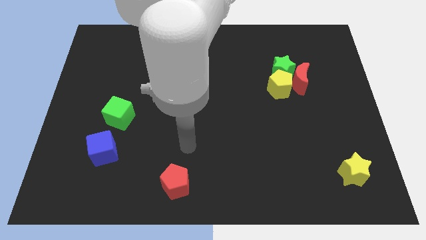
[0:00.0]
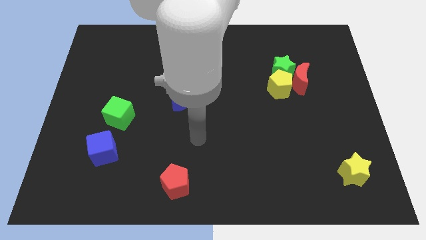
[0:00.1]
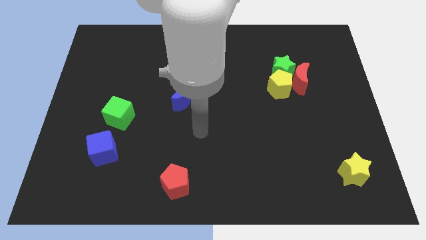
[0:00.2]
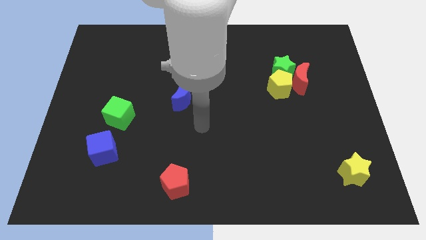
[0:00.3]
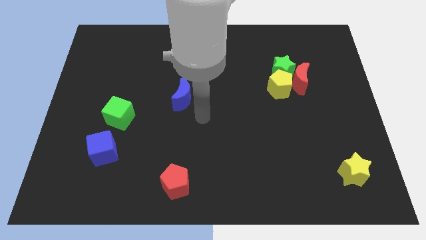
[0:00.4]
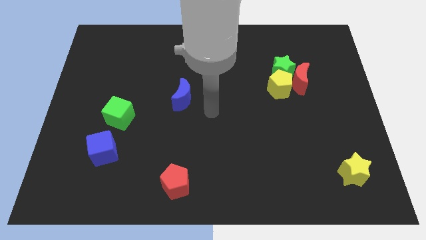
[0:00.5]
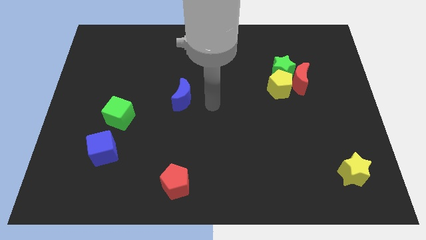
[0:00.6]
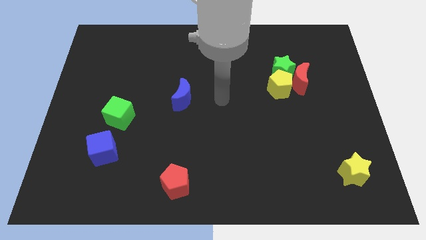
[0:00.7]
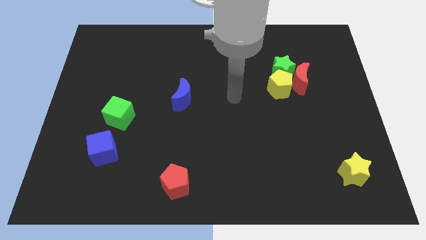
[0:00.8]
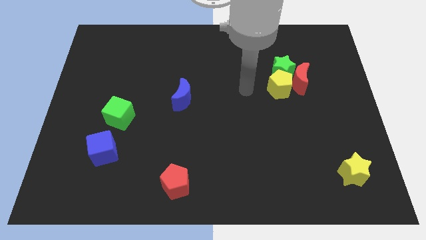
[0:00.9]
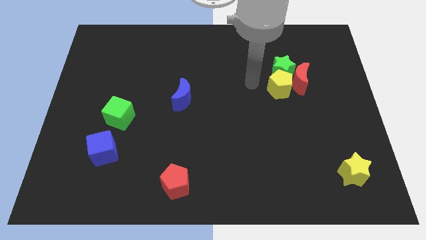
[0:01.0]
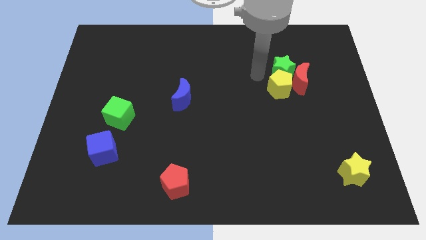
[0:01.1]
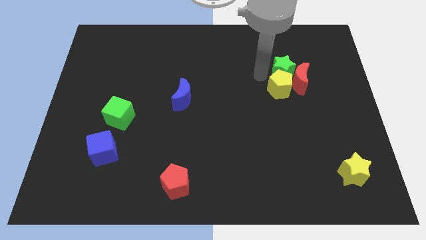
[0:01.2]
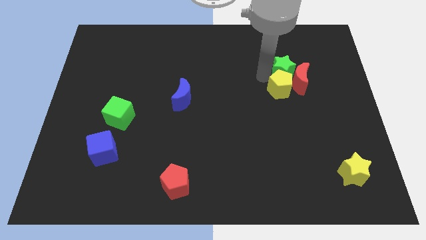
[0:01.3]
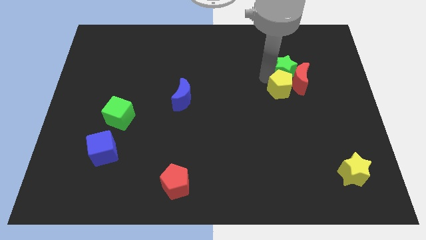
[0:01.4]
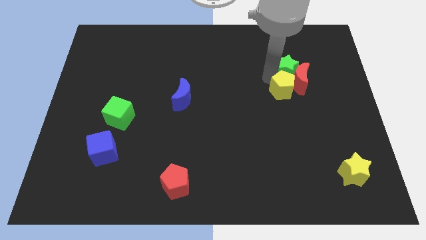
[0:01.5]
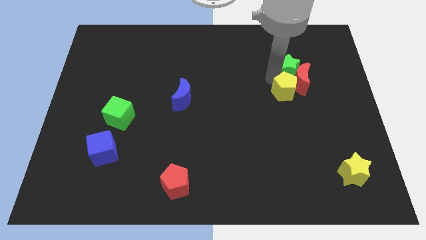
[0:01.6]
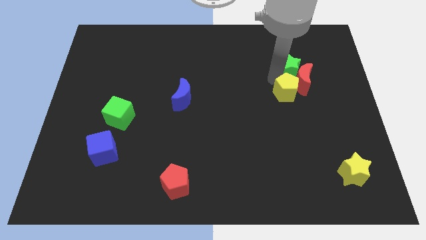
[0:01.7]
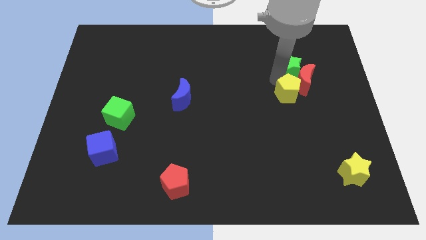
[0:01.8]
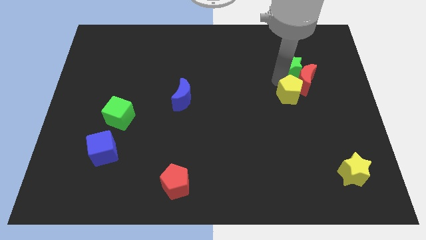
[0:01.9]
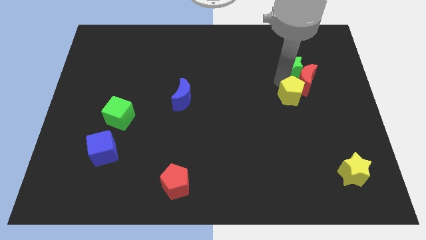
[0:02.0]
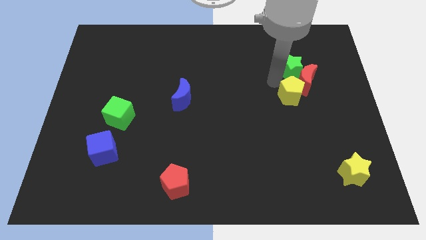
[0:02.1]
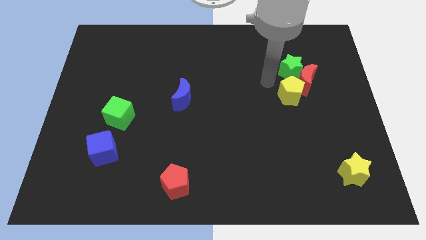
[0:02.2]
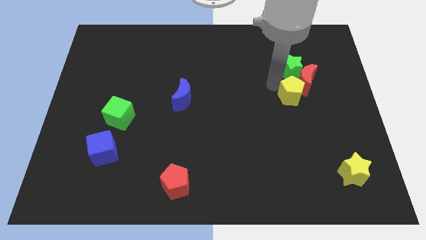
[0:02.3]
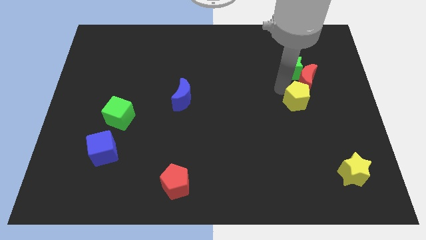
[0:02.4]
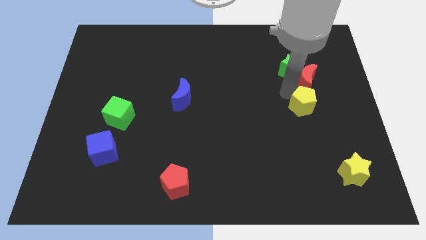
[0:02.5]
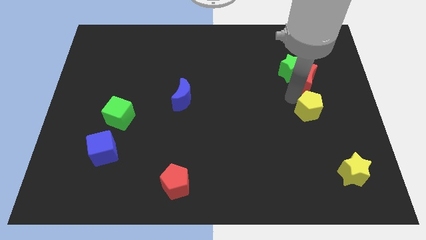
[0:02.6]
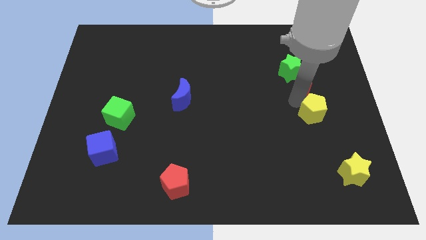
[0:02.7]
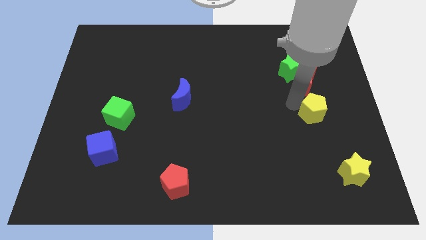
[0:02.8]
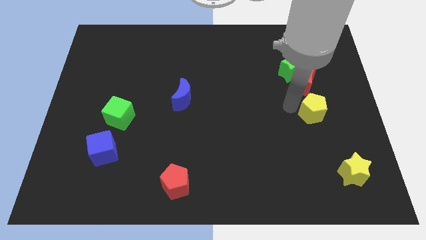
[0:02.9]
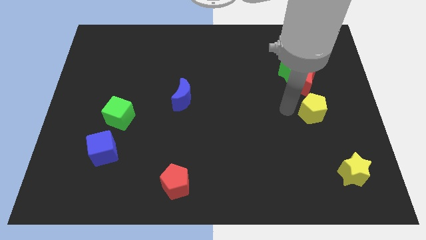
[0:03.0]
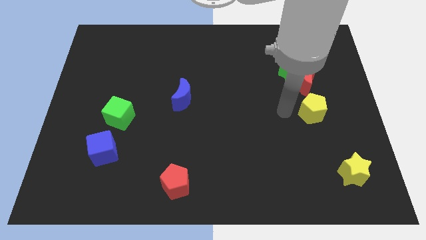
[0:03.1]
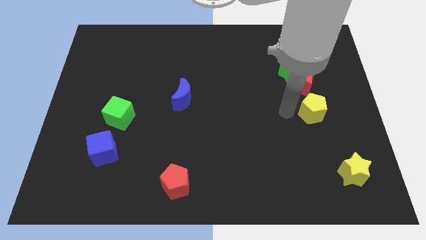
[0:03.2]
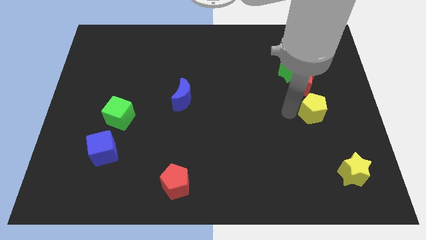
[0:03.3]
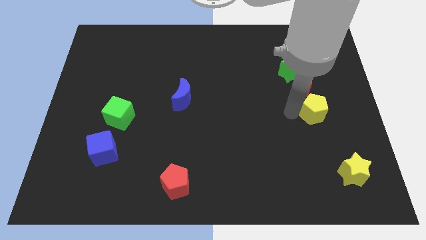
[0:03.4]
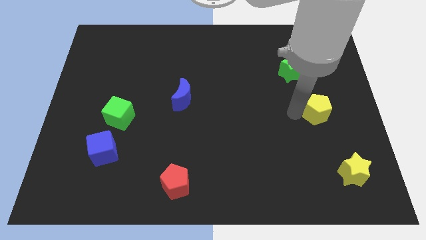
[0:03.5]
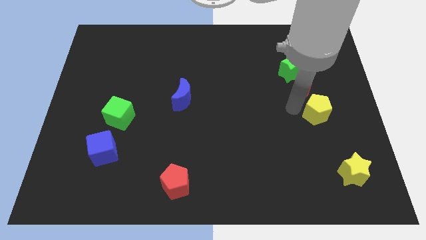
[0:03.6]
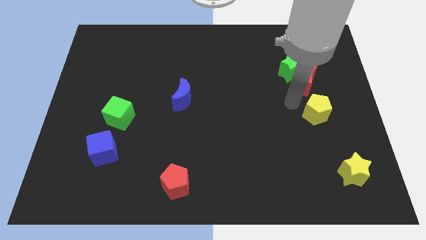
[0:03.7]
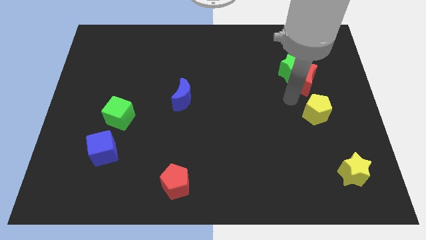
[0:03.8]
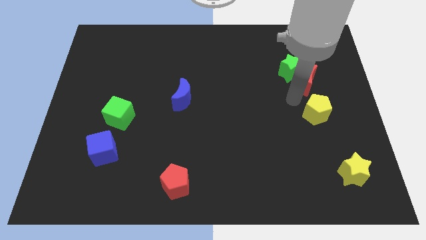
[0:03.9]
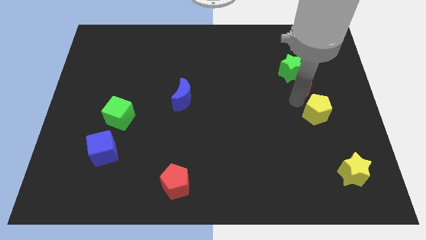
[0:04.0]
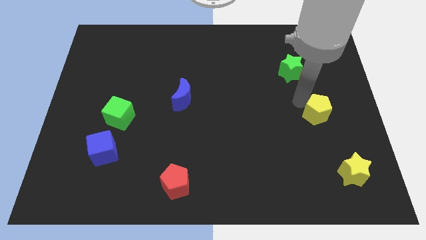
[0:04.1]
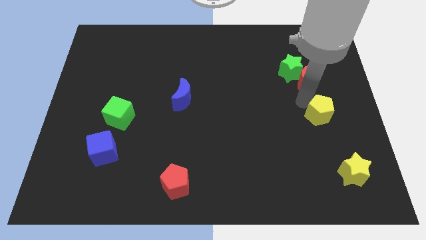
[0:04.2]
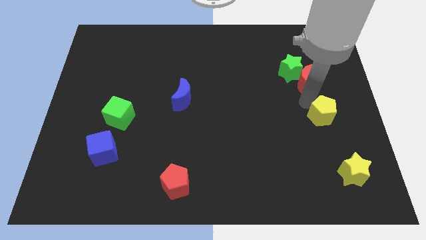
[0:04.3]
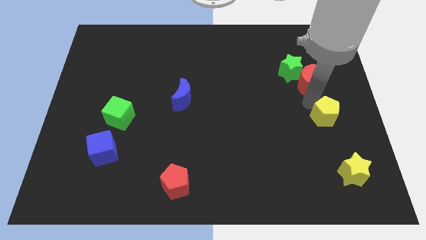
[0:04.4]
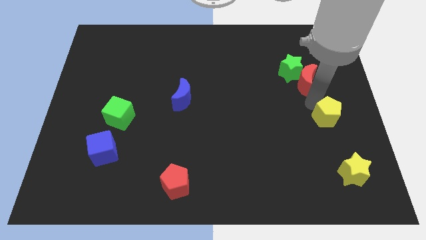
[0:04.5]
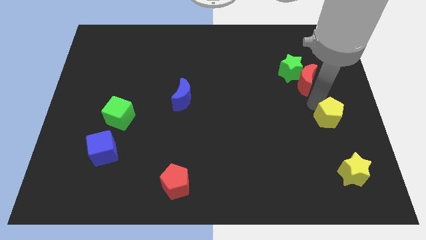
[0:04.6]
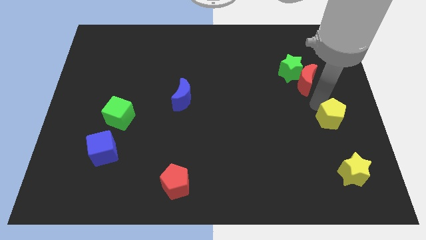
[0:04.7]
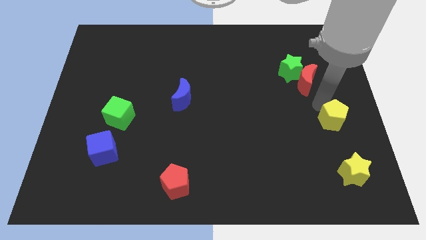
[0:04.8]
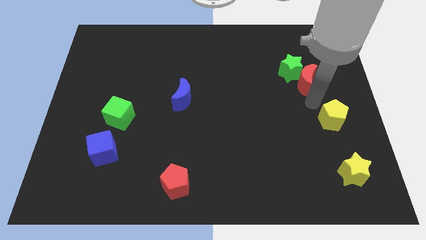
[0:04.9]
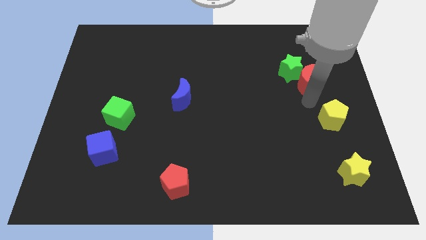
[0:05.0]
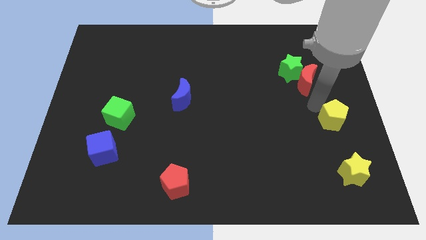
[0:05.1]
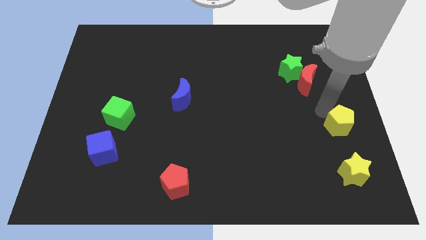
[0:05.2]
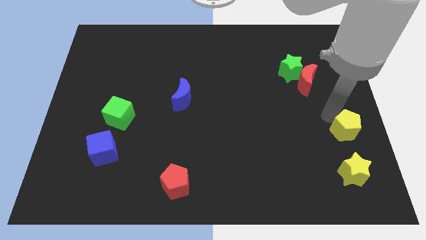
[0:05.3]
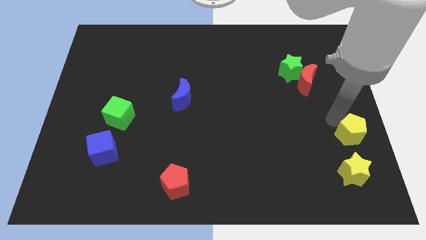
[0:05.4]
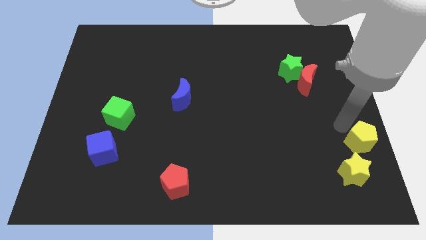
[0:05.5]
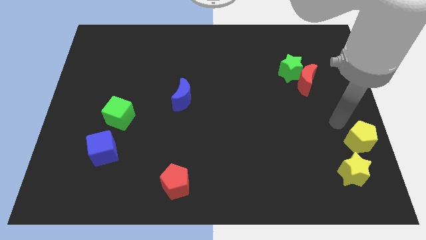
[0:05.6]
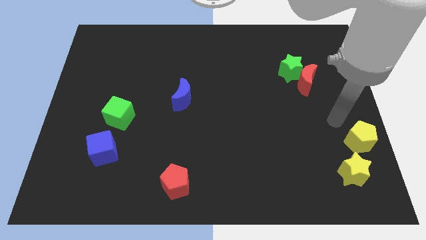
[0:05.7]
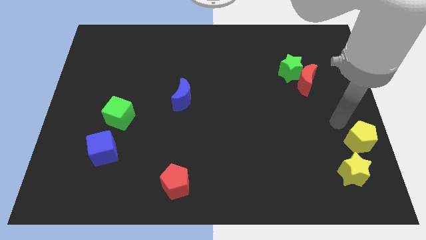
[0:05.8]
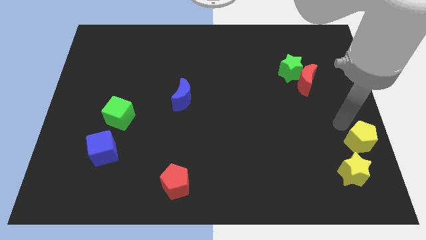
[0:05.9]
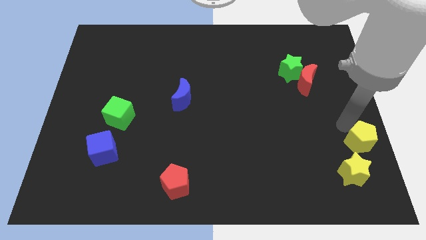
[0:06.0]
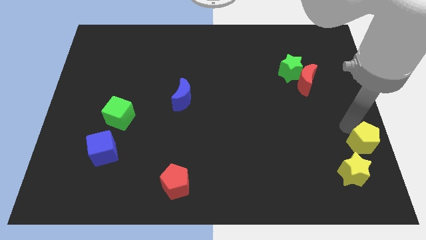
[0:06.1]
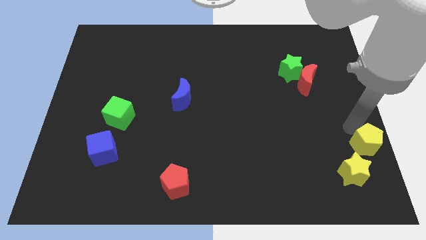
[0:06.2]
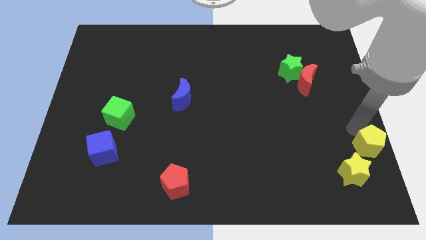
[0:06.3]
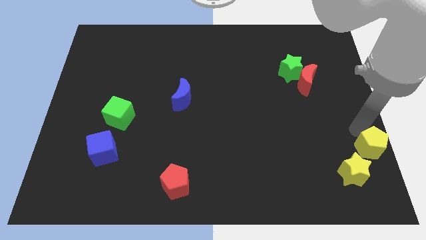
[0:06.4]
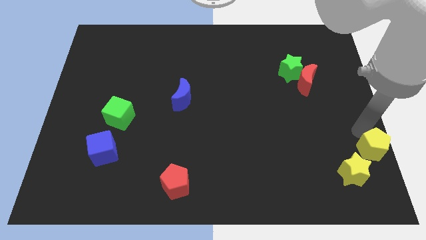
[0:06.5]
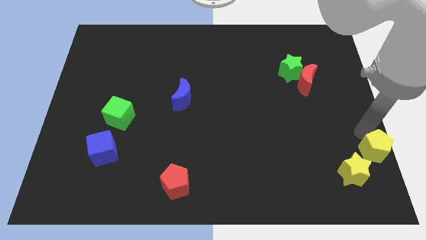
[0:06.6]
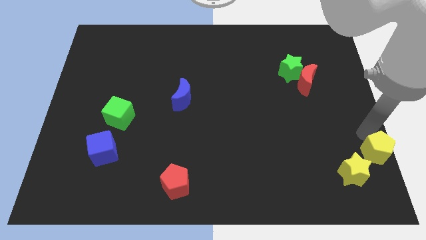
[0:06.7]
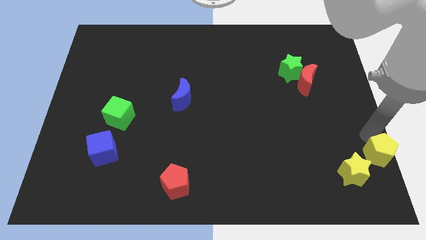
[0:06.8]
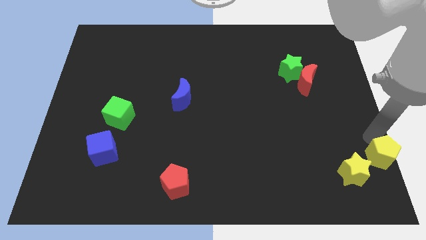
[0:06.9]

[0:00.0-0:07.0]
move the yellow pentagon to the bottom right of the board
